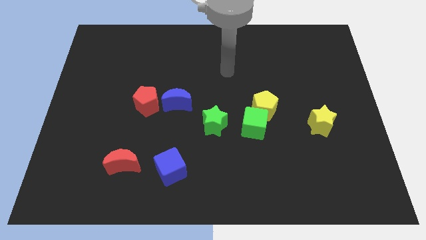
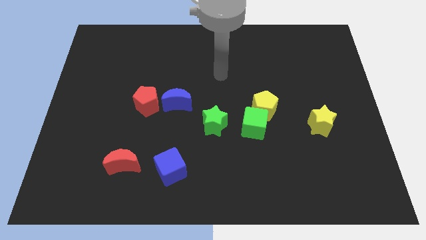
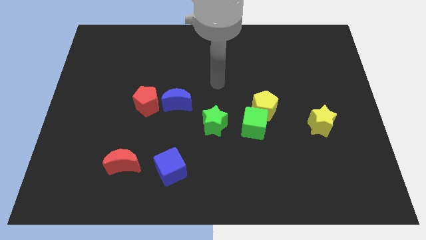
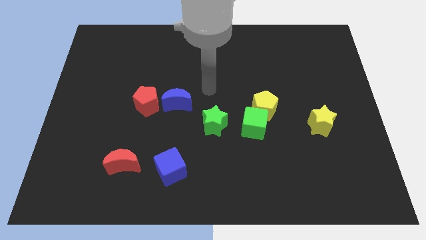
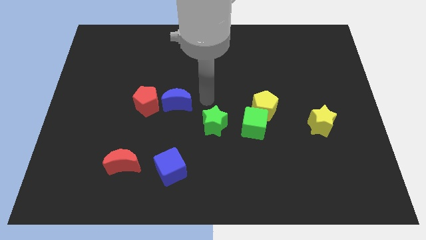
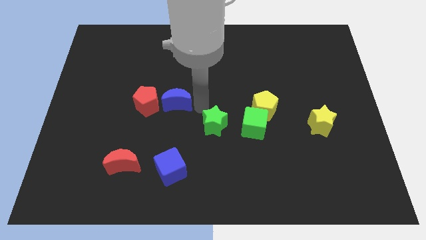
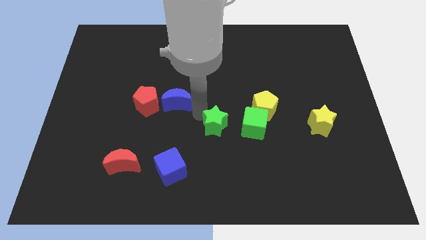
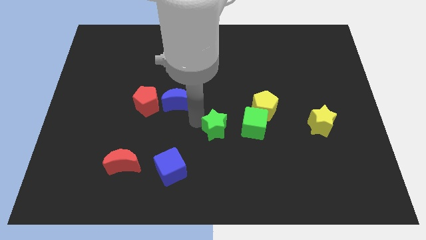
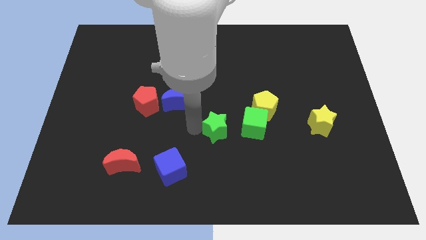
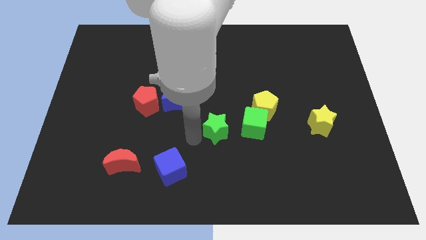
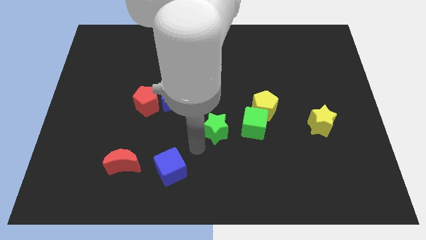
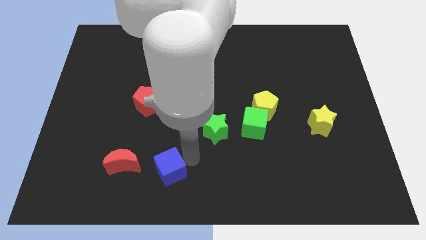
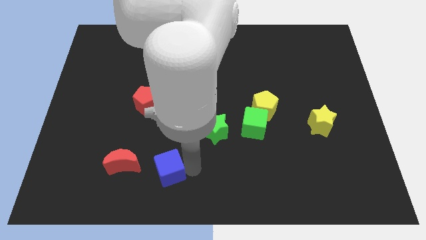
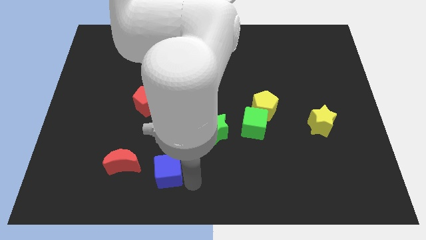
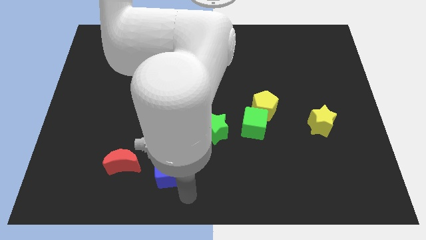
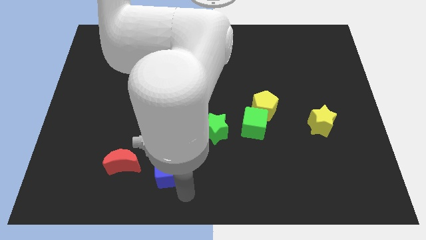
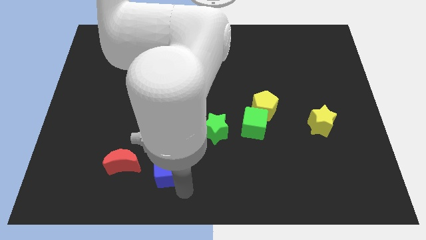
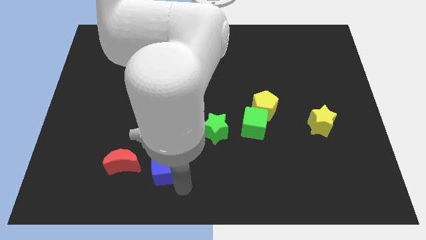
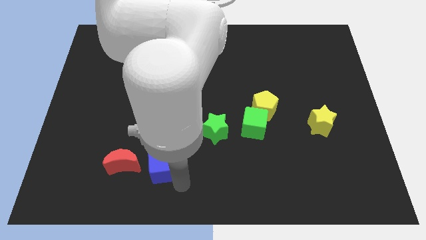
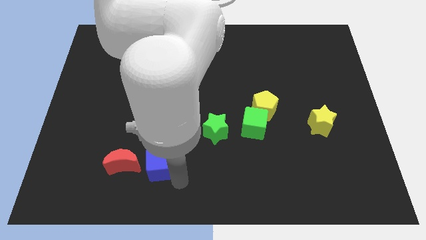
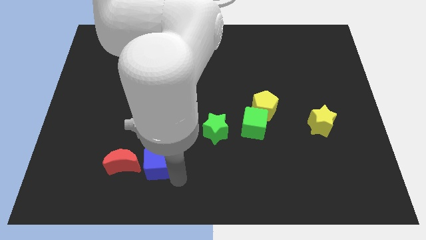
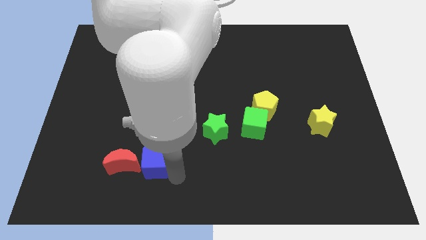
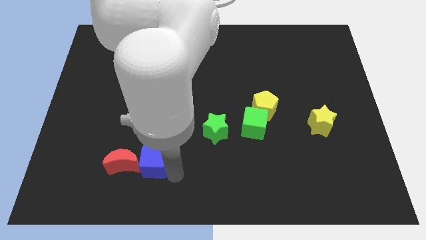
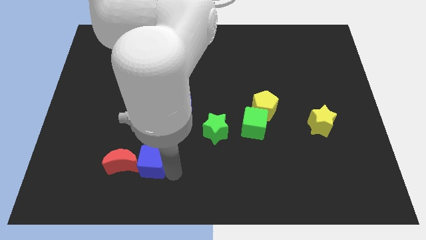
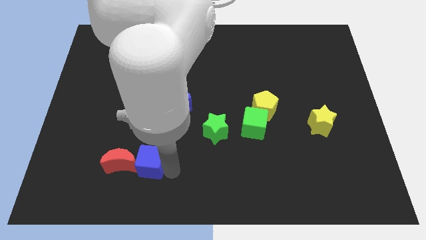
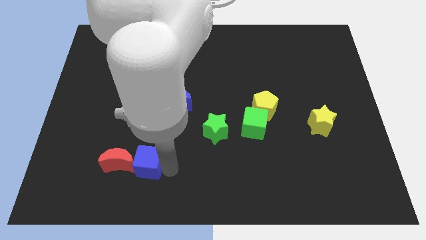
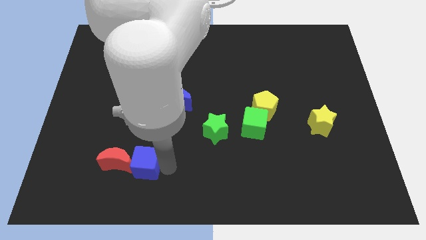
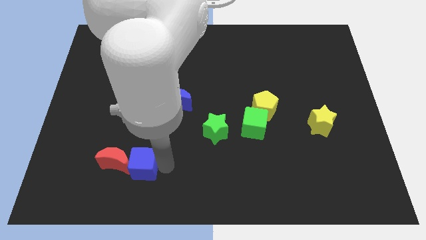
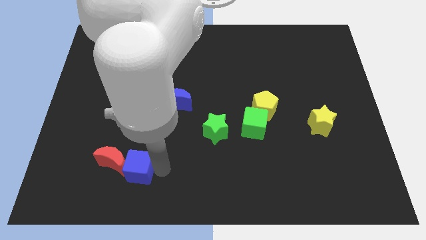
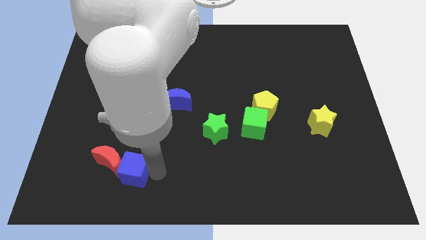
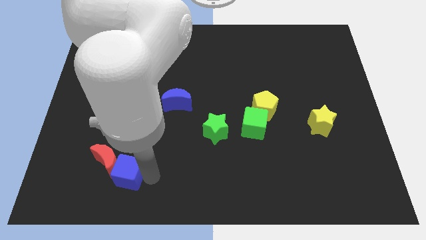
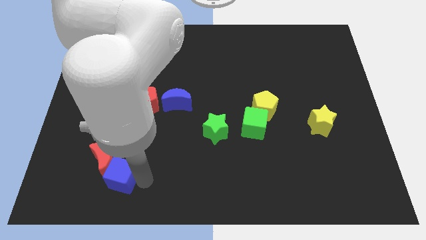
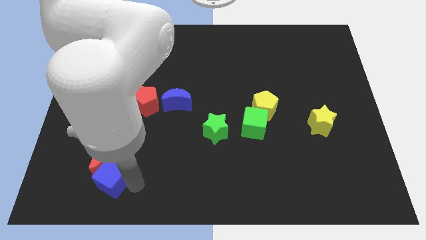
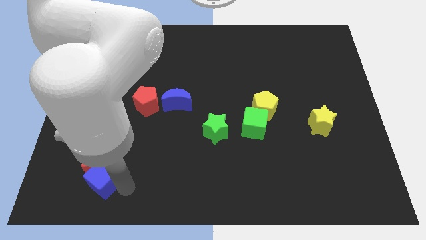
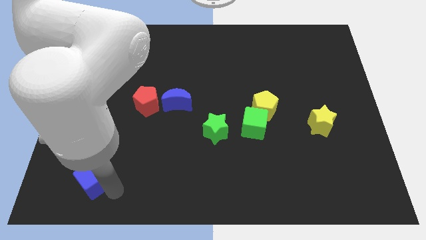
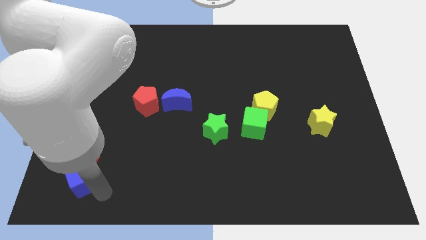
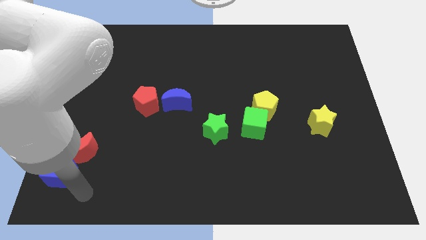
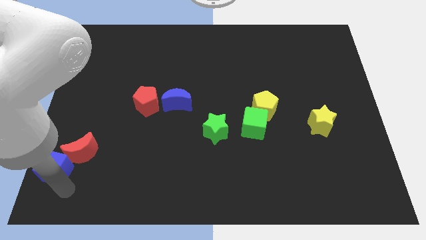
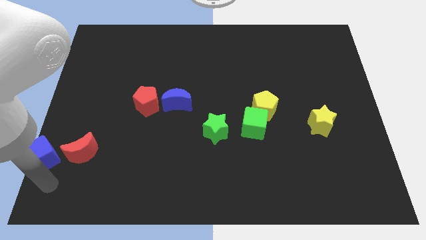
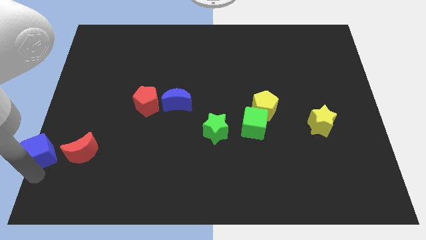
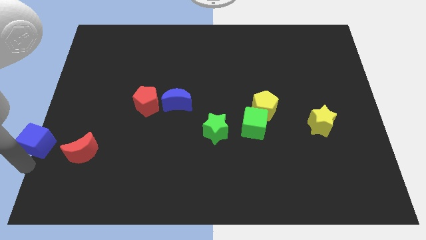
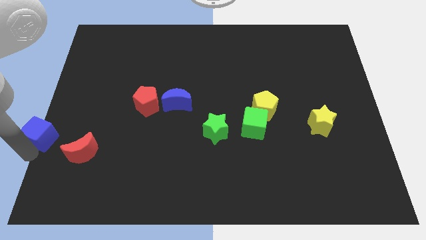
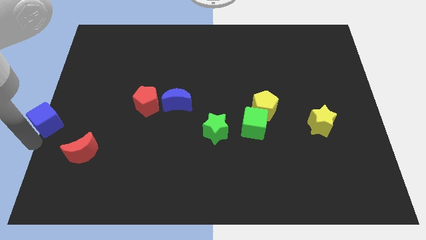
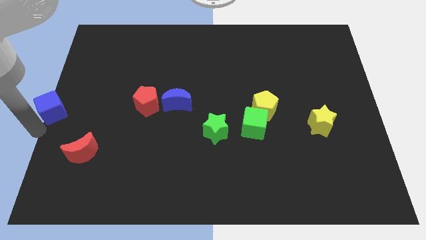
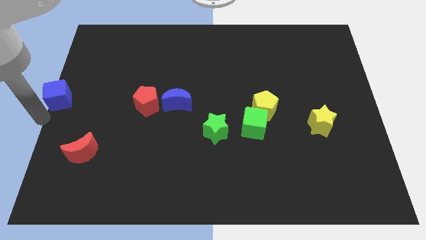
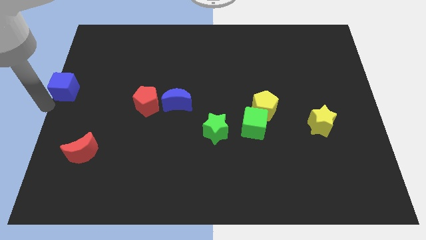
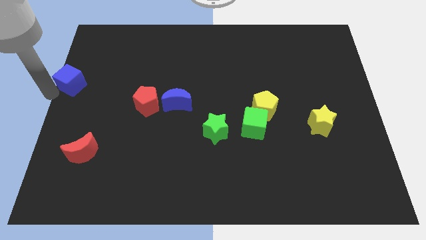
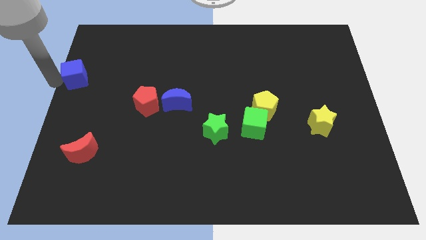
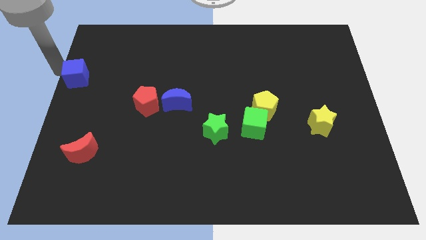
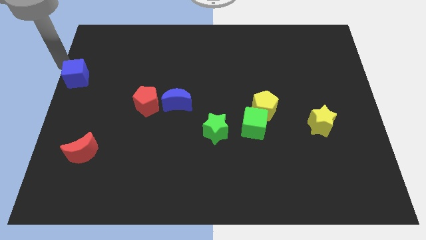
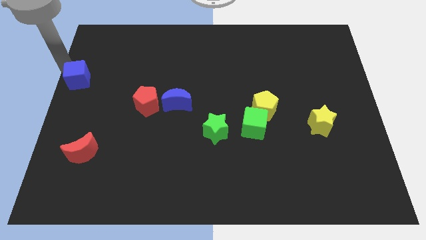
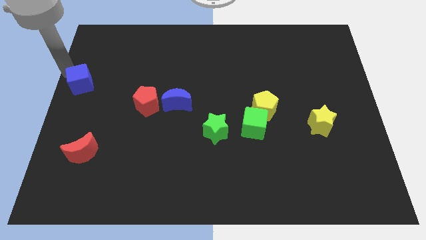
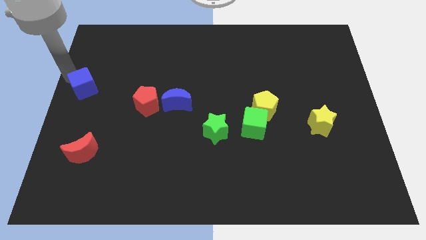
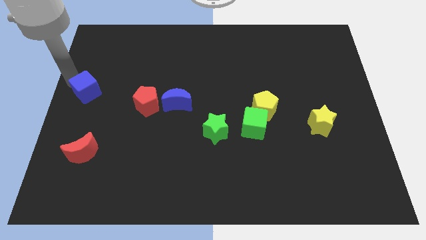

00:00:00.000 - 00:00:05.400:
slide the blue cube up and to the left diagonally slightly

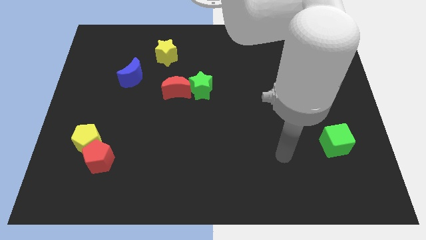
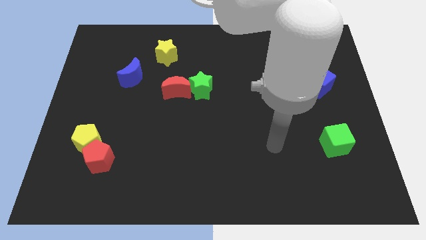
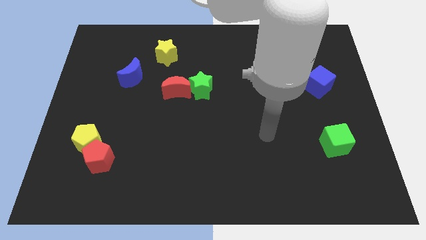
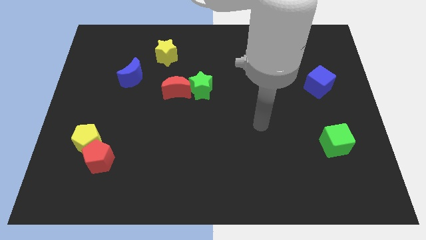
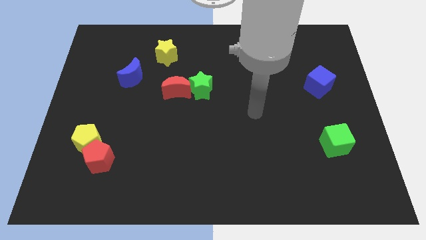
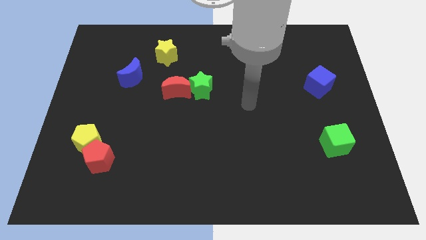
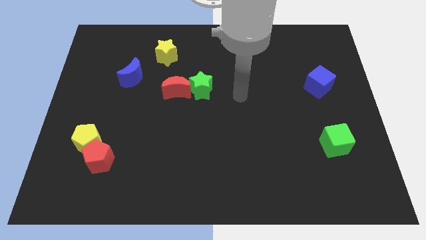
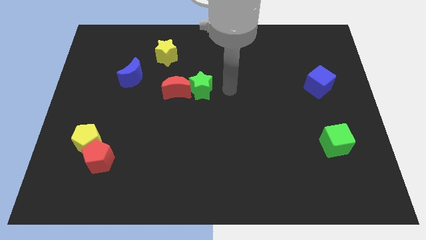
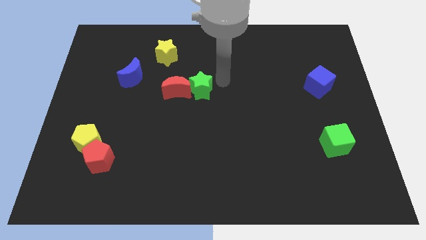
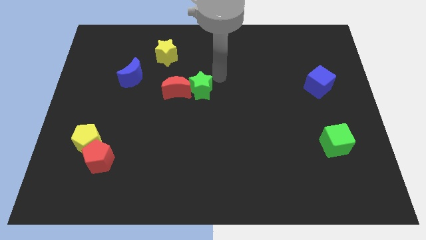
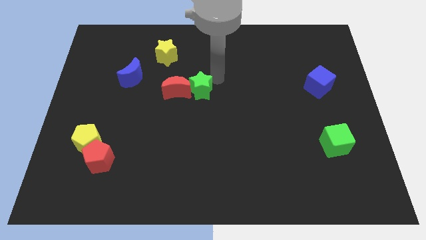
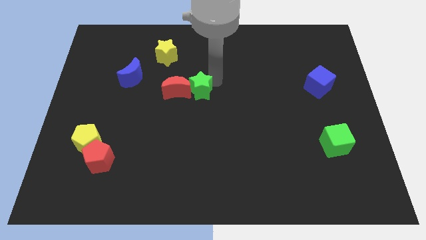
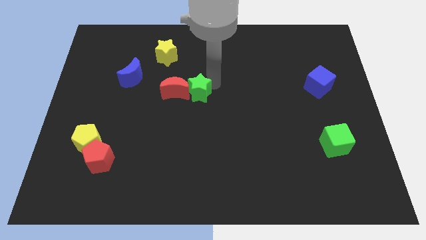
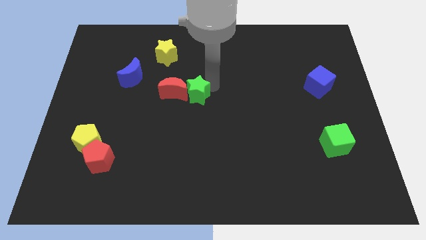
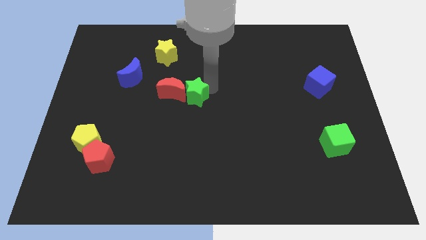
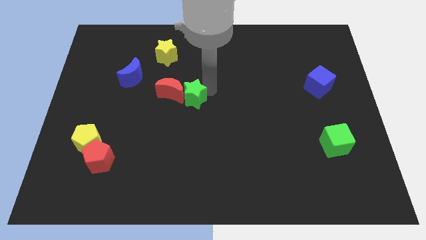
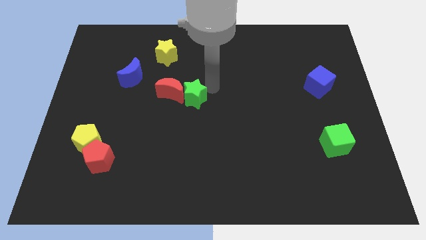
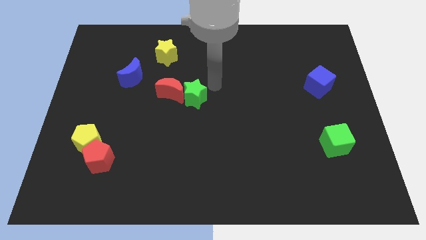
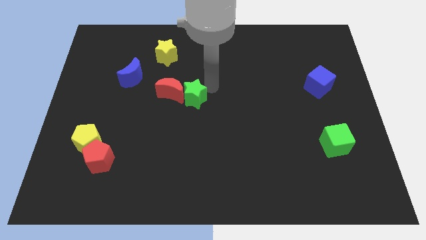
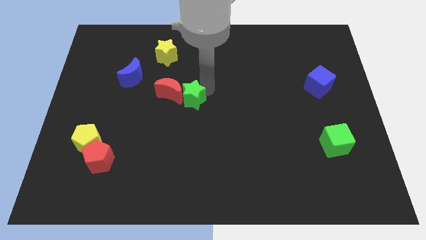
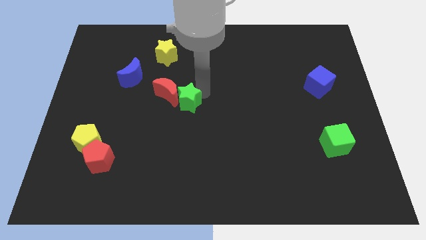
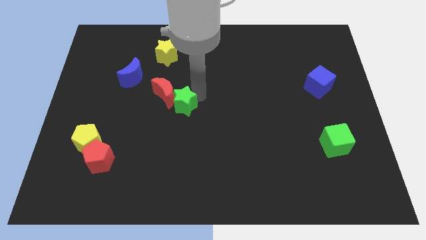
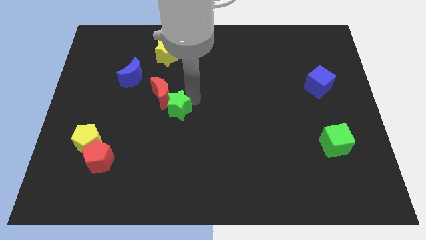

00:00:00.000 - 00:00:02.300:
move the green star diagonally downwards and left a bit

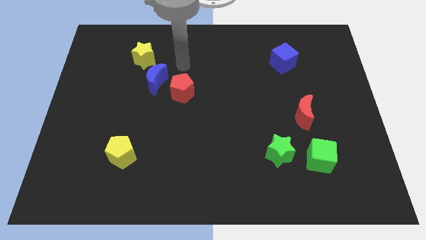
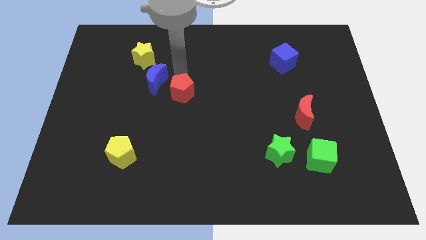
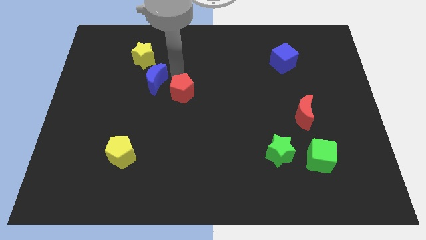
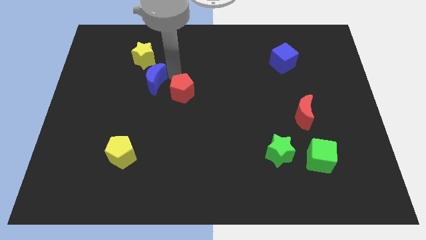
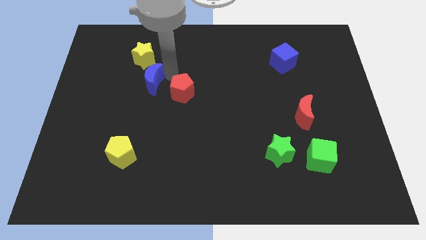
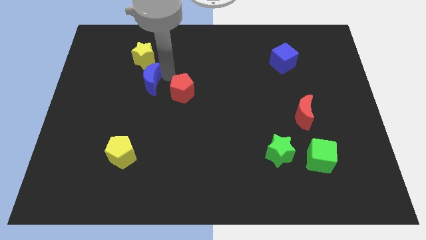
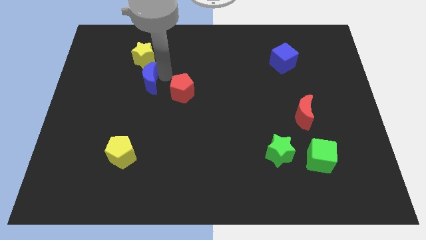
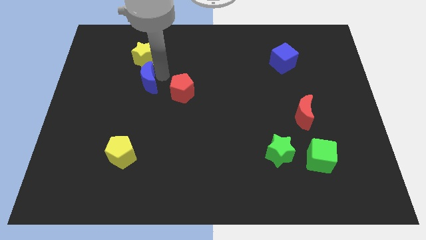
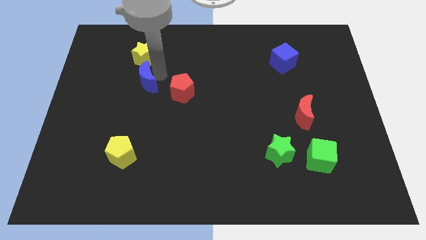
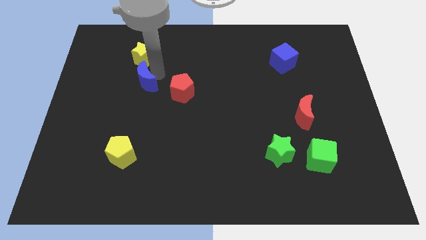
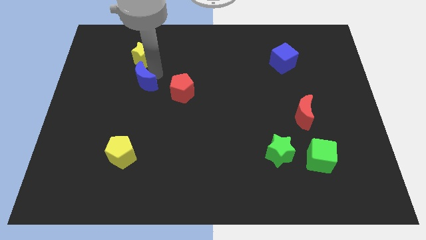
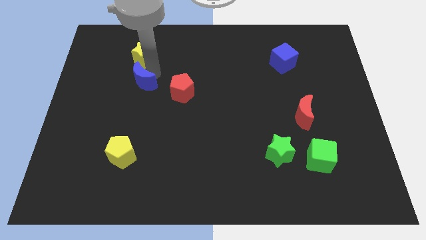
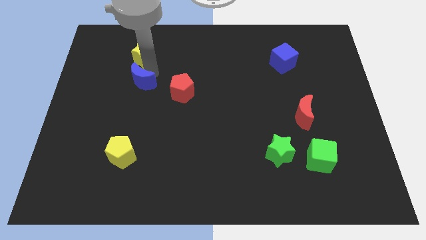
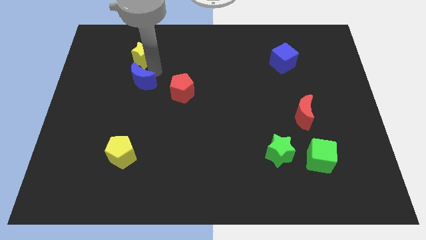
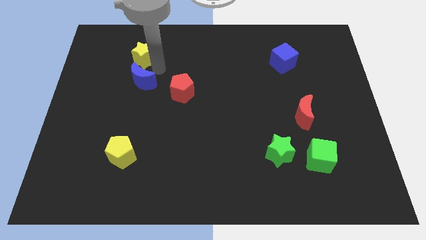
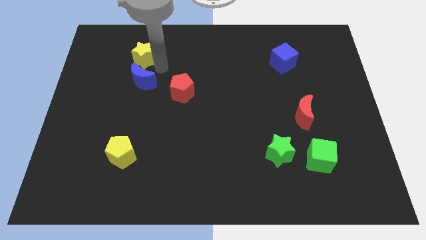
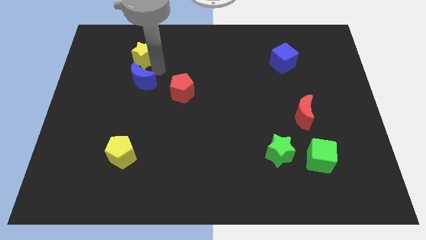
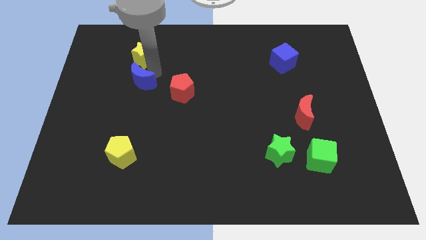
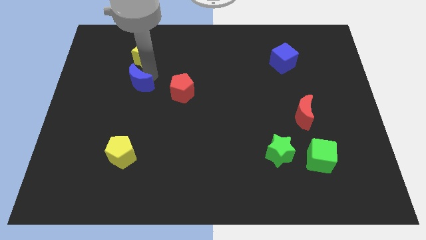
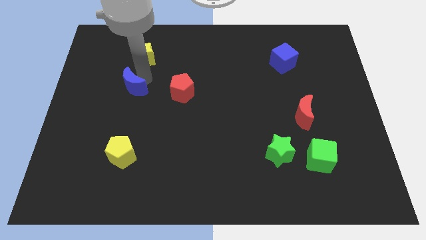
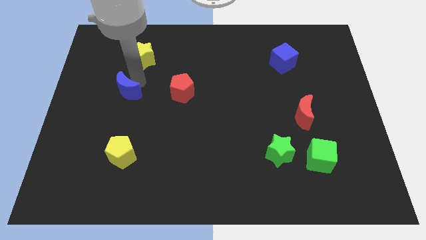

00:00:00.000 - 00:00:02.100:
slightly slide the blue moon downwards and to the left
